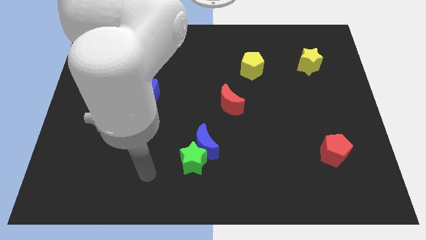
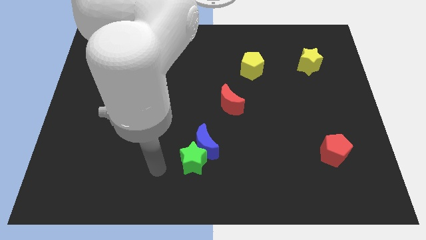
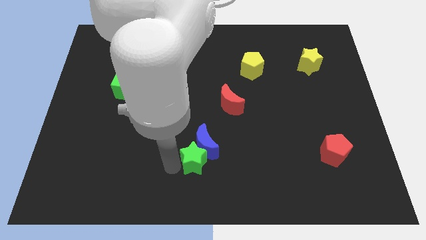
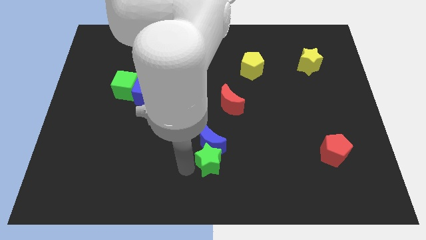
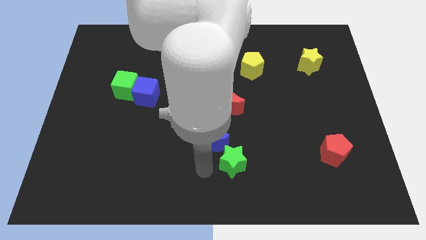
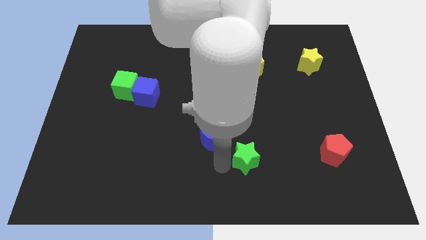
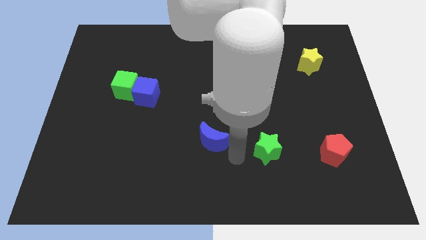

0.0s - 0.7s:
pull the blue moon apart from the green star

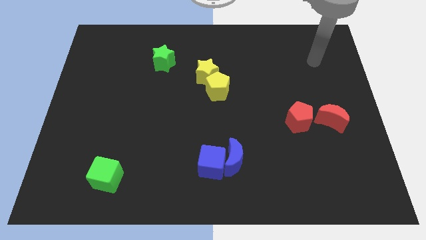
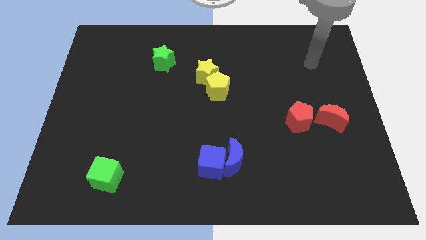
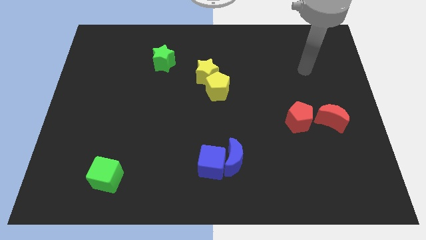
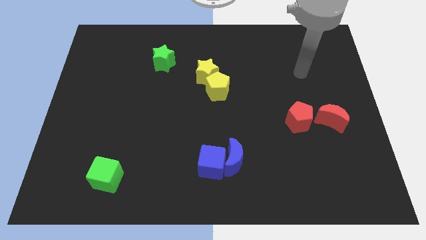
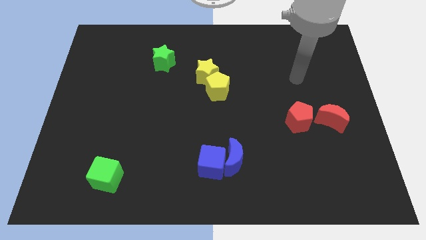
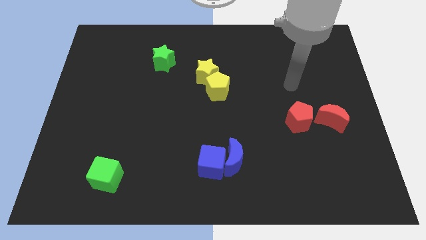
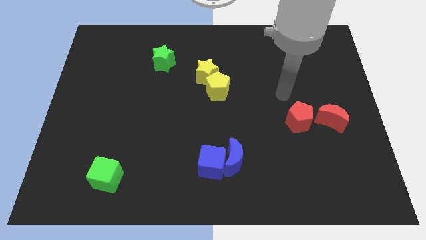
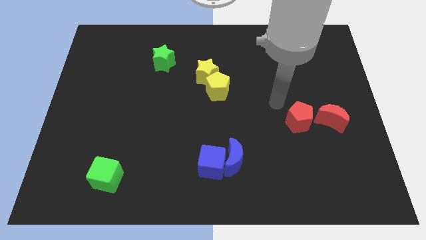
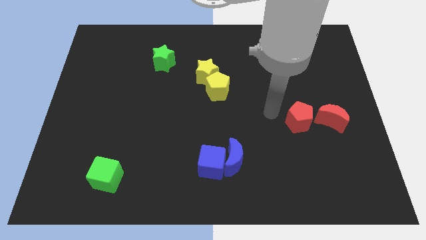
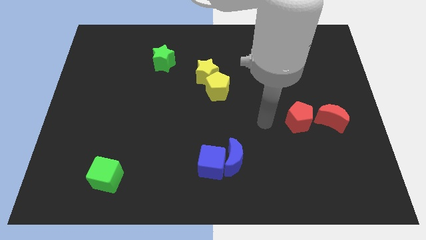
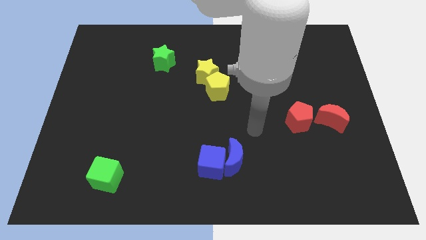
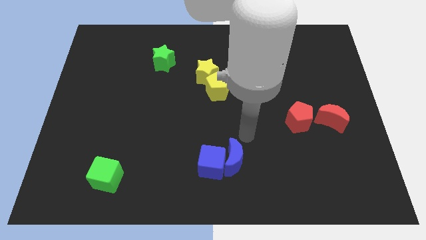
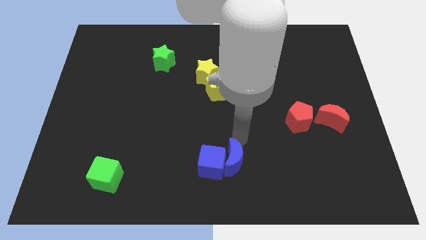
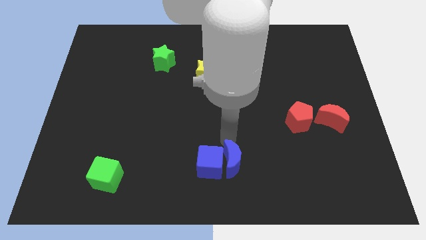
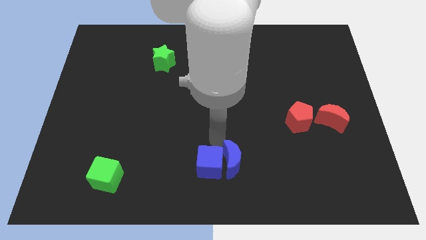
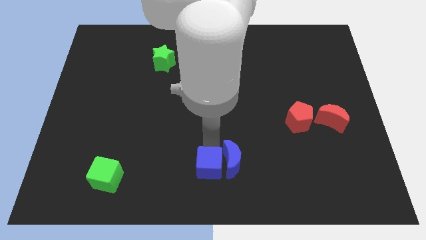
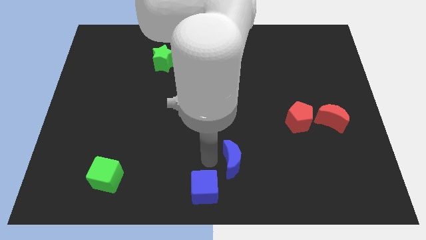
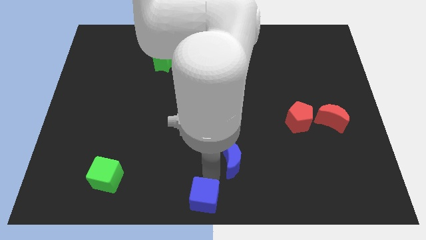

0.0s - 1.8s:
pull the blue moon apart from the blue cube

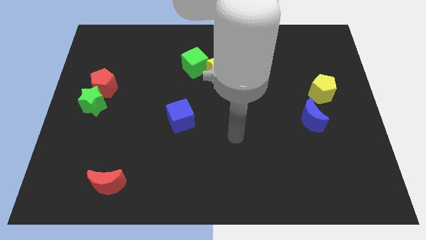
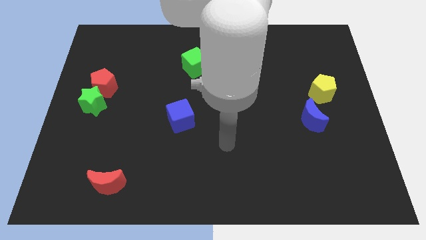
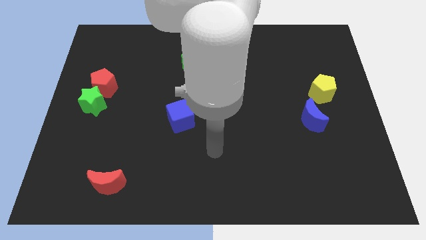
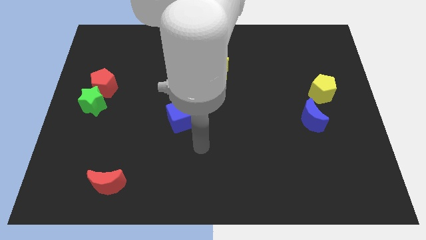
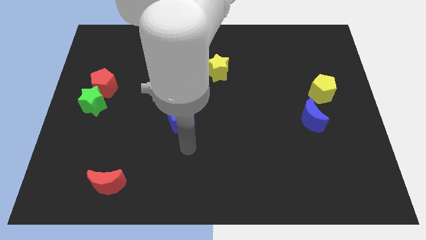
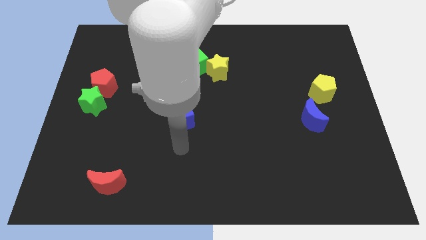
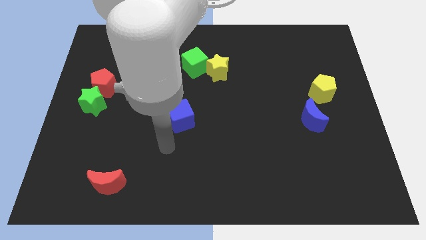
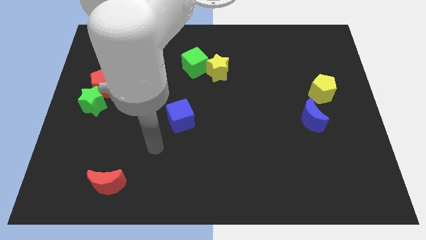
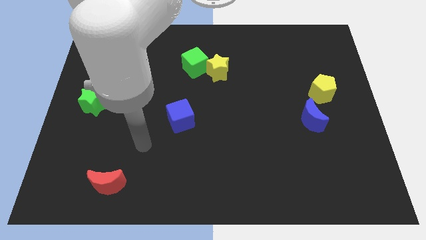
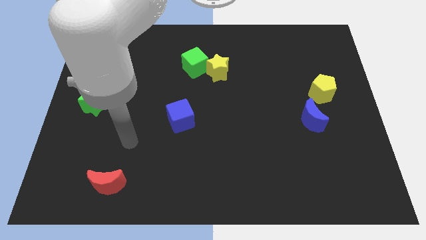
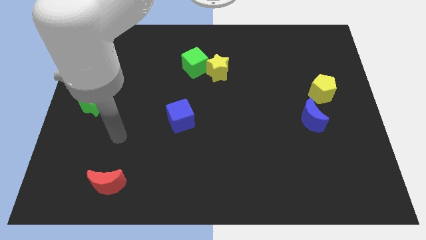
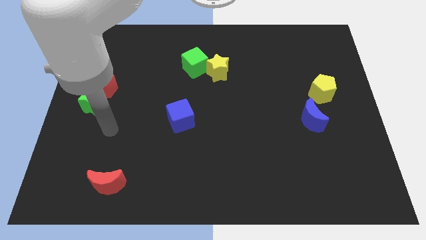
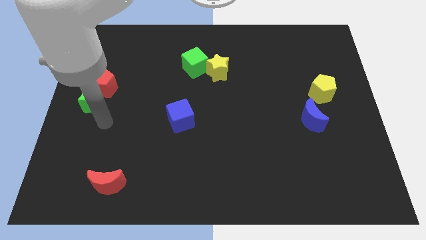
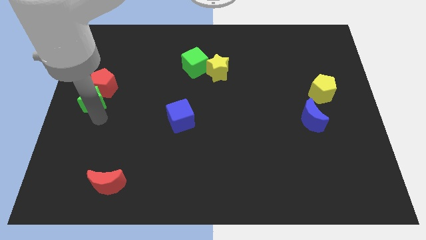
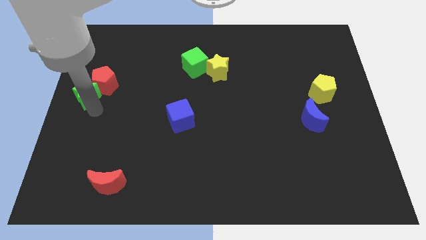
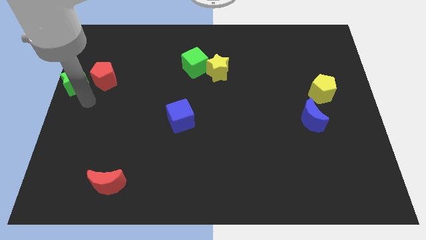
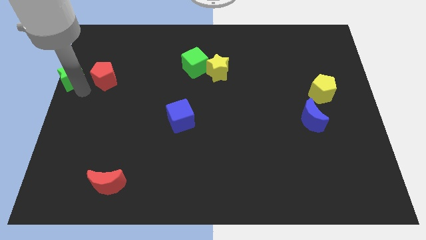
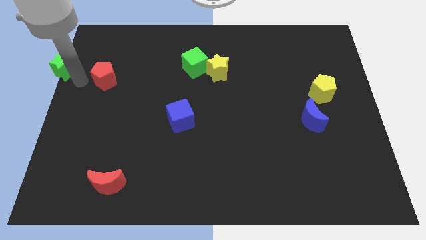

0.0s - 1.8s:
pull the red pentagon apart from the green star

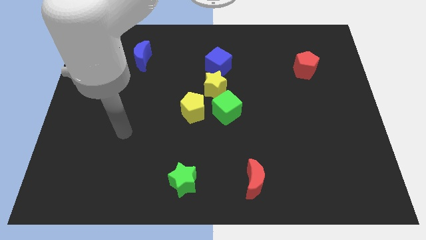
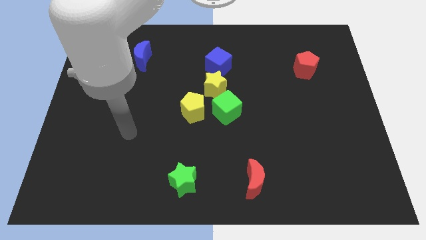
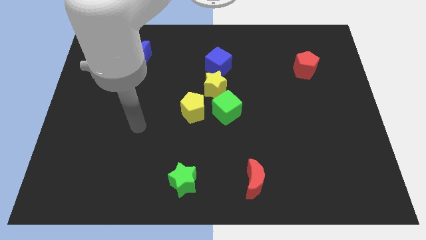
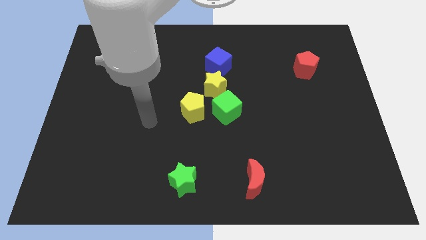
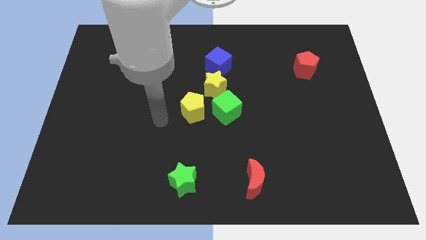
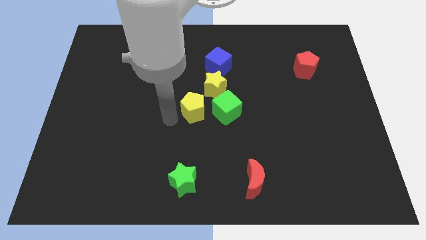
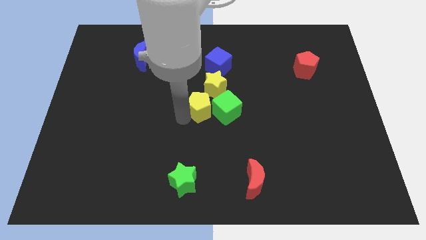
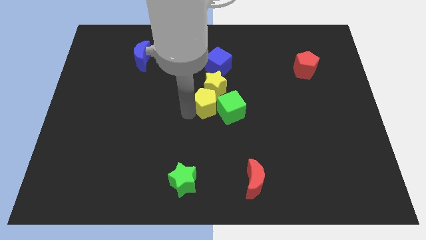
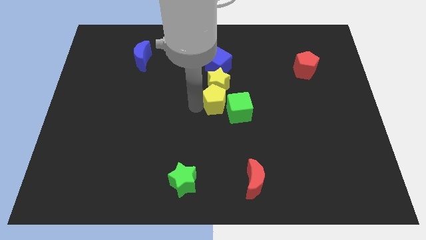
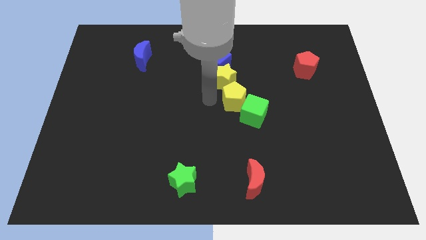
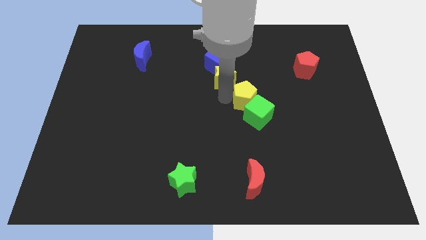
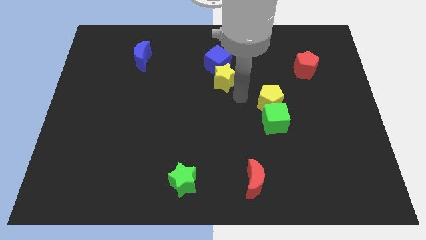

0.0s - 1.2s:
move the green cube away from the yellow star and yellow pentagon

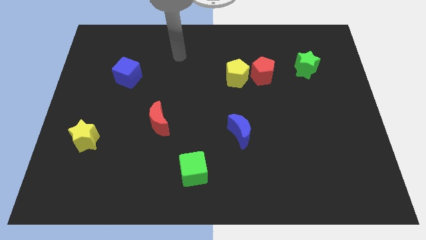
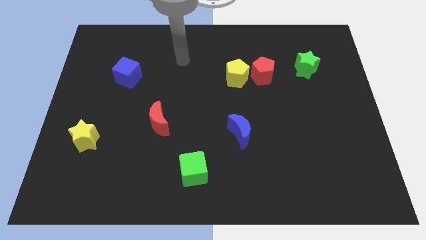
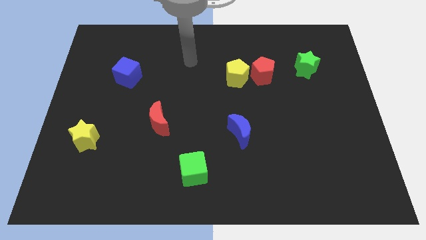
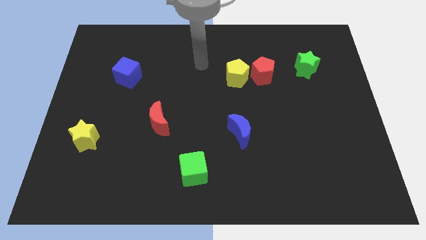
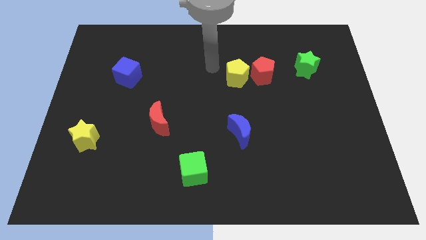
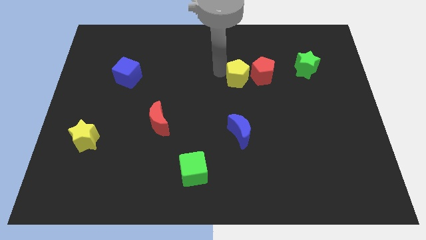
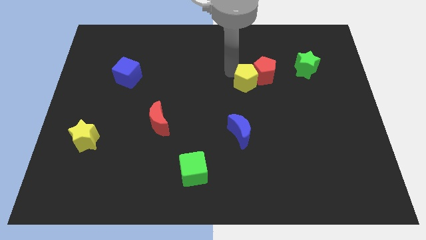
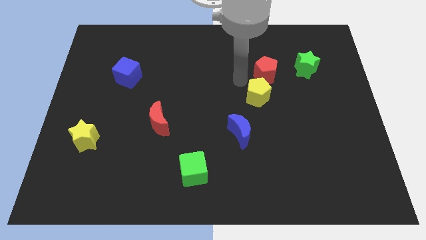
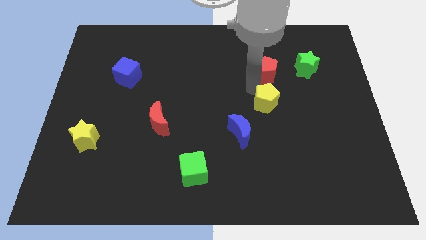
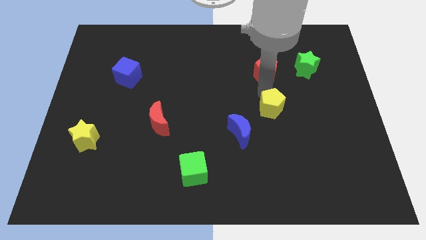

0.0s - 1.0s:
separate the red pentagon from the yellow pentagon

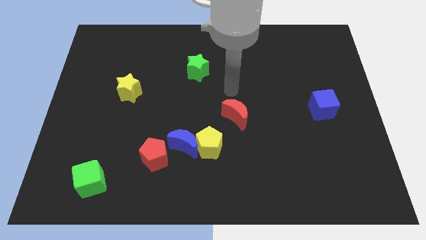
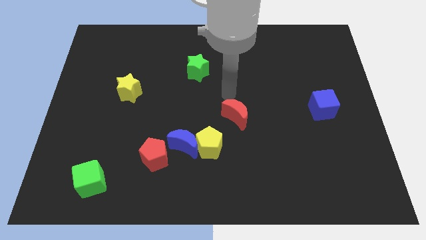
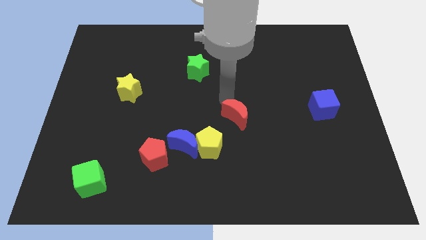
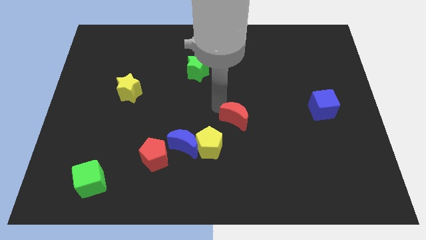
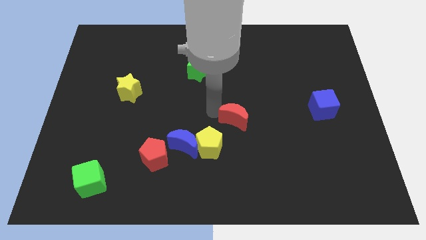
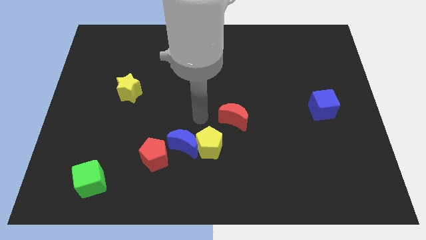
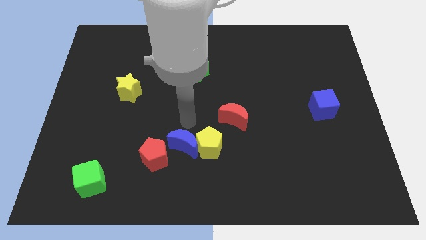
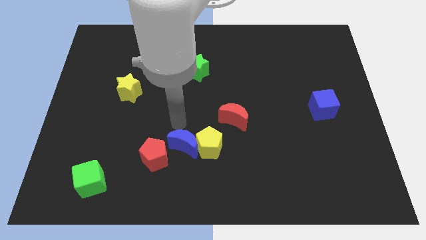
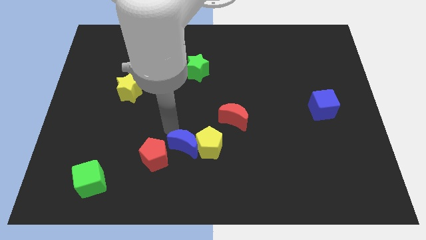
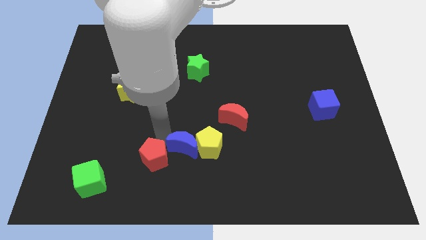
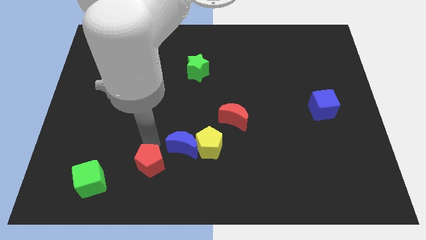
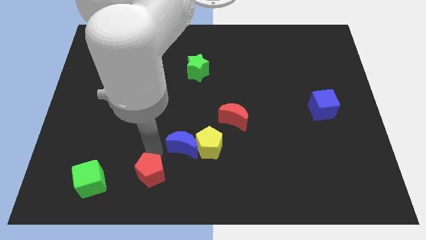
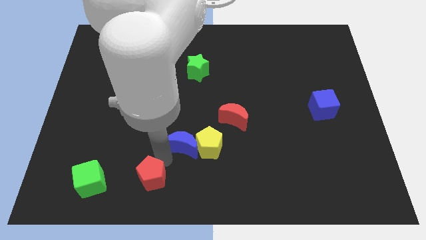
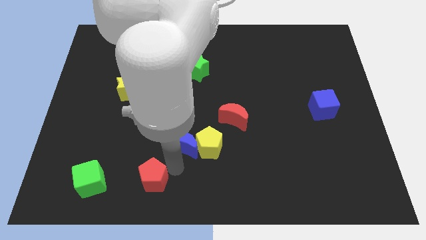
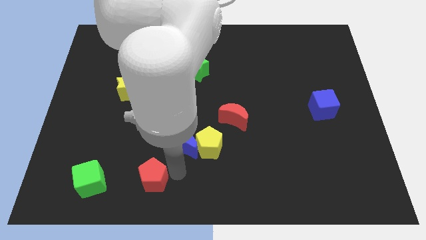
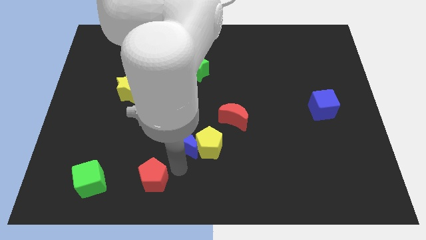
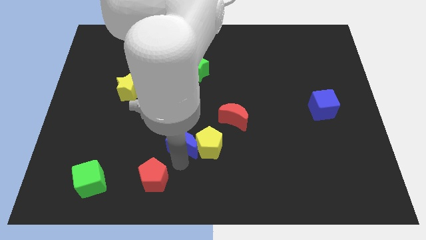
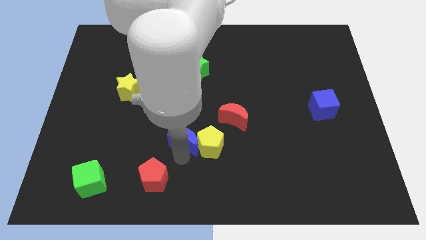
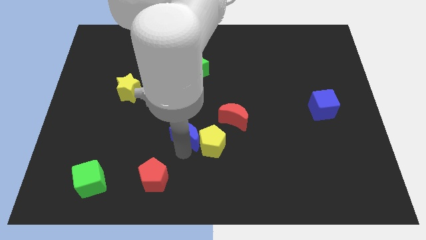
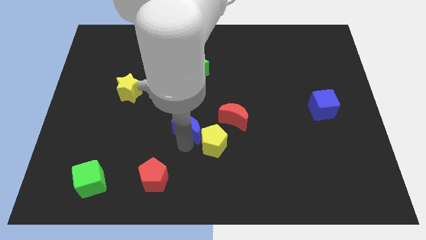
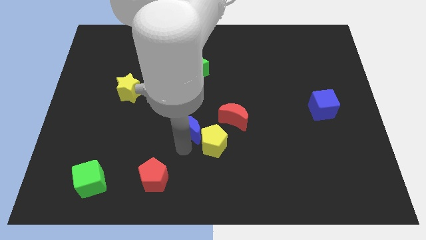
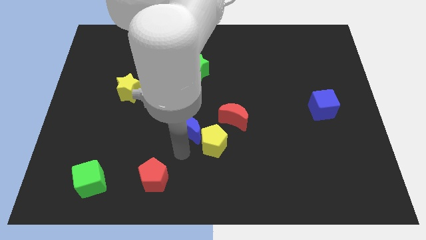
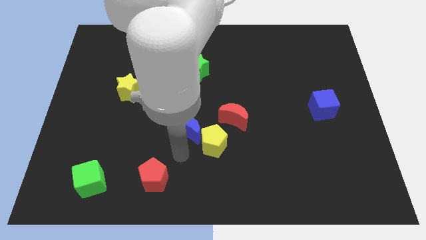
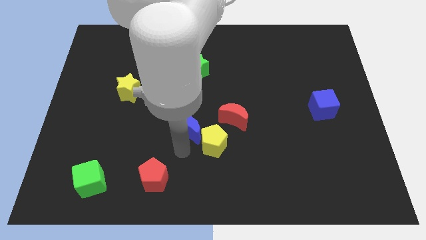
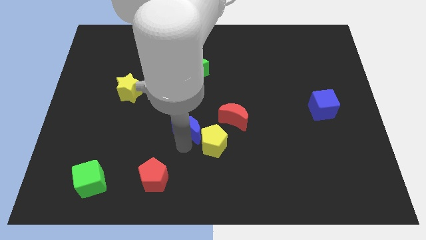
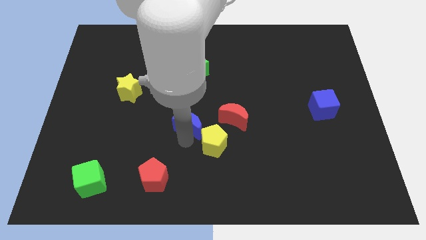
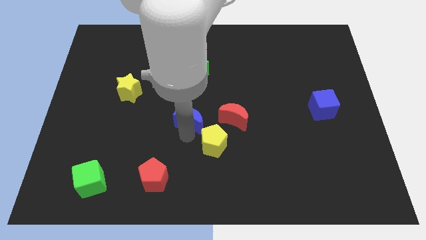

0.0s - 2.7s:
separate the blue moon from the yellow pentagon and red pentagon

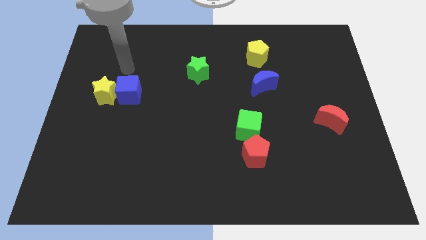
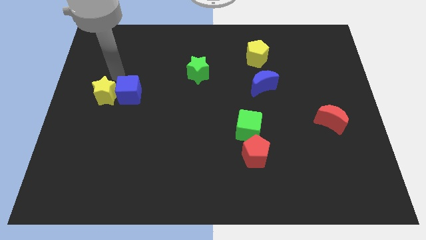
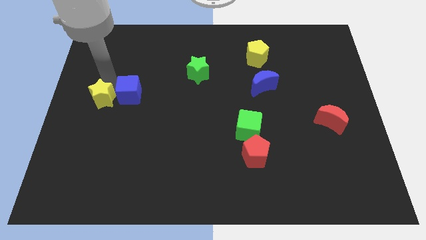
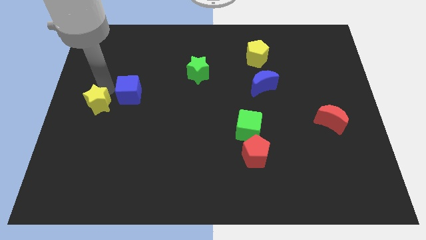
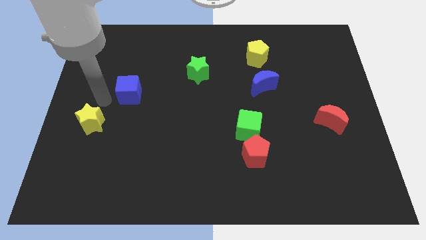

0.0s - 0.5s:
pull the blue cube apart from the yellow star
